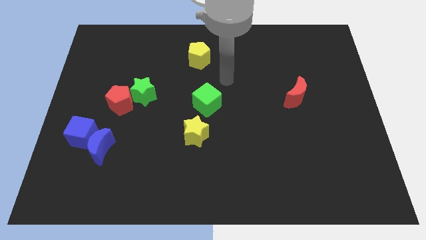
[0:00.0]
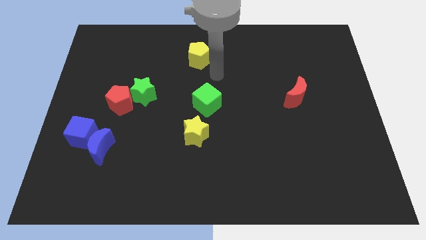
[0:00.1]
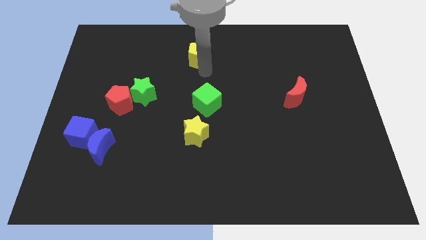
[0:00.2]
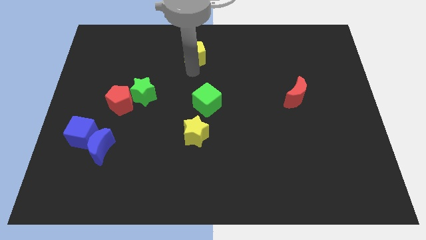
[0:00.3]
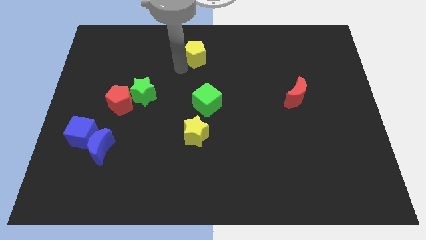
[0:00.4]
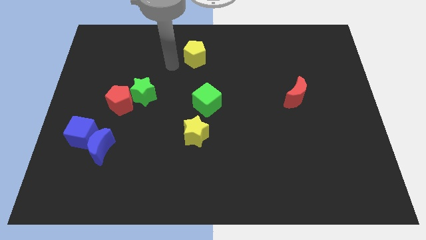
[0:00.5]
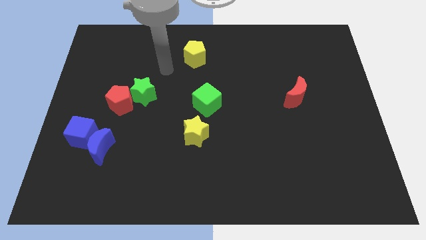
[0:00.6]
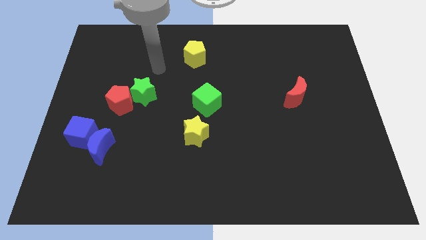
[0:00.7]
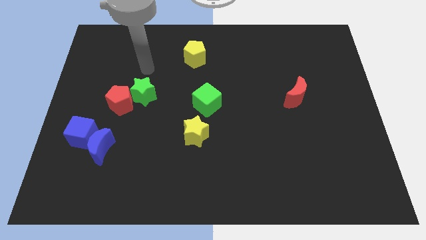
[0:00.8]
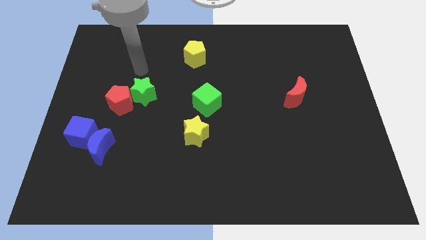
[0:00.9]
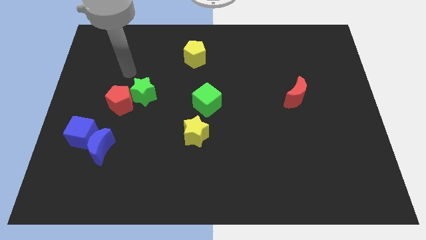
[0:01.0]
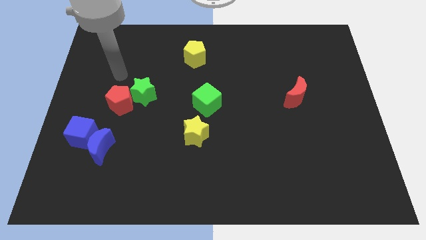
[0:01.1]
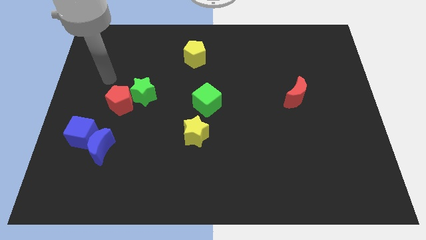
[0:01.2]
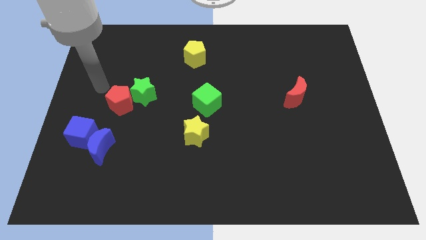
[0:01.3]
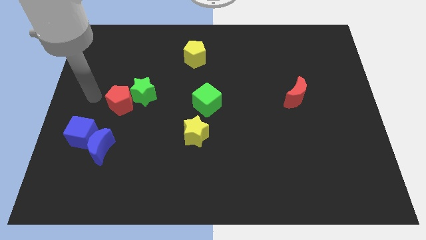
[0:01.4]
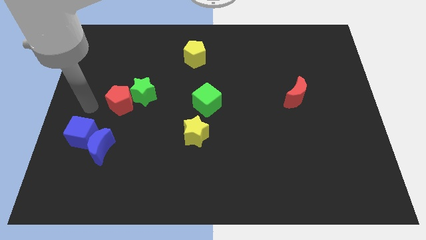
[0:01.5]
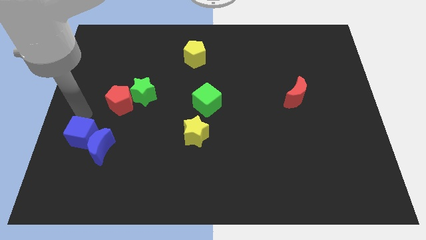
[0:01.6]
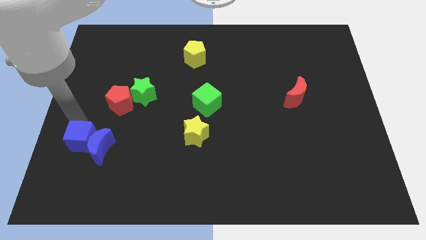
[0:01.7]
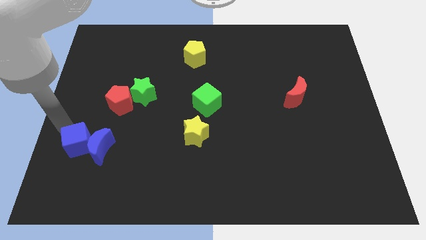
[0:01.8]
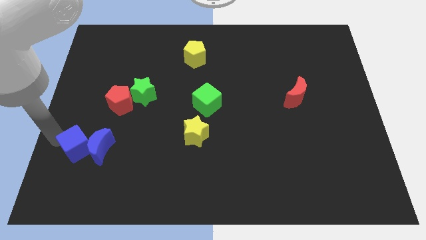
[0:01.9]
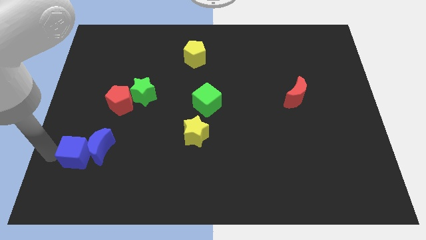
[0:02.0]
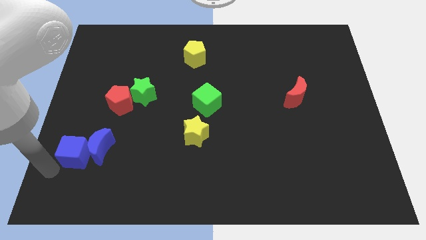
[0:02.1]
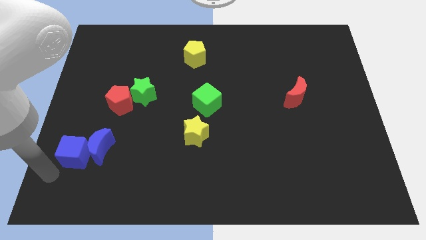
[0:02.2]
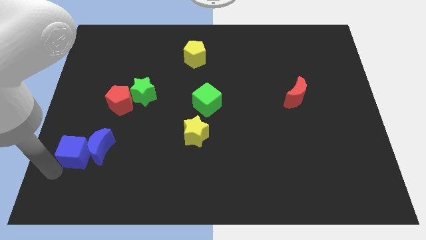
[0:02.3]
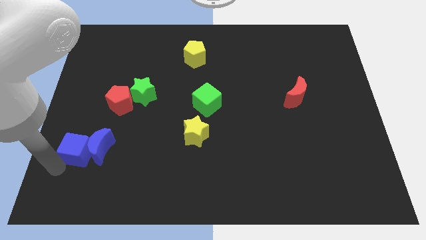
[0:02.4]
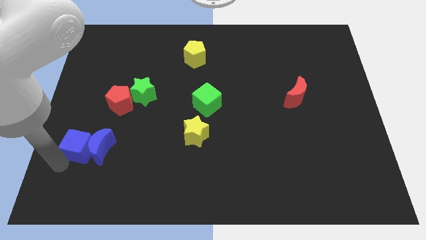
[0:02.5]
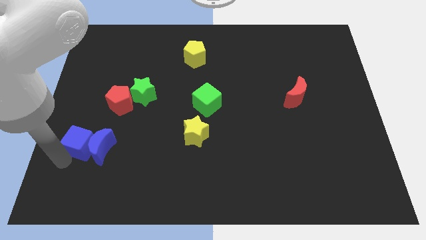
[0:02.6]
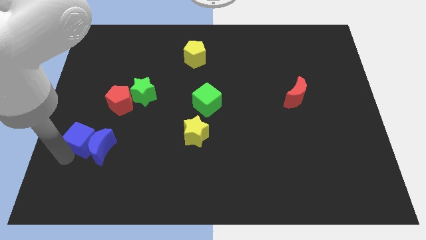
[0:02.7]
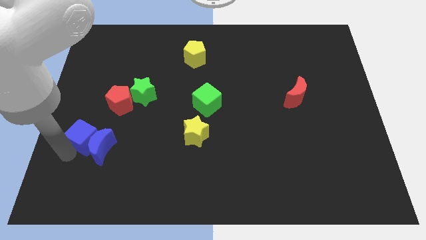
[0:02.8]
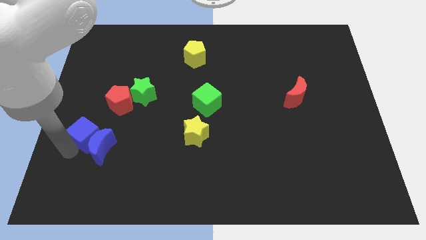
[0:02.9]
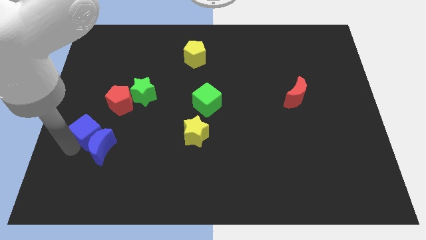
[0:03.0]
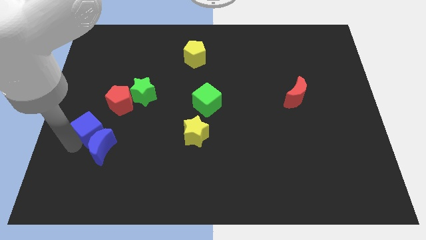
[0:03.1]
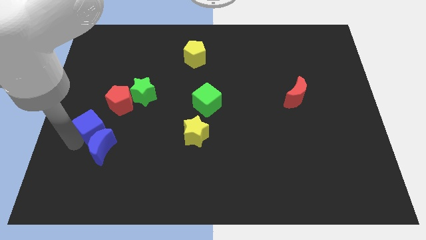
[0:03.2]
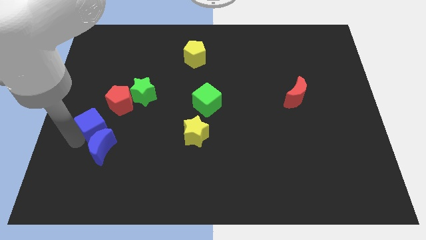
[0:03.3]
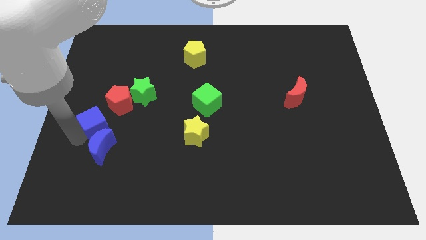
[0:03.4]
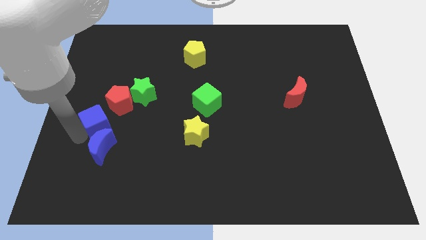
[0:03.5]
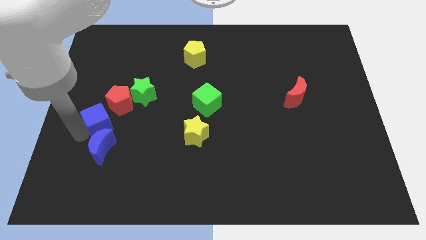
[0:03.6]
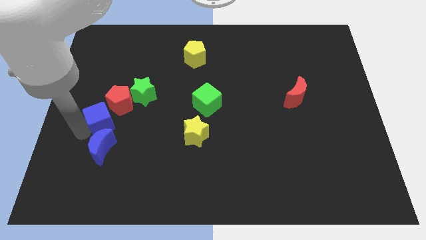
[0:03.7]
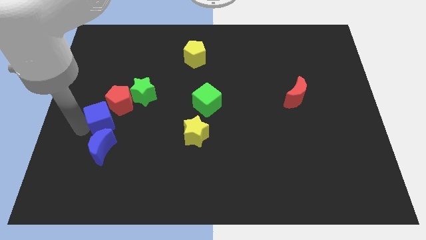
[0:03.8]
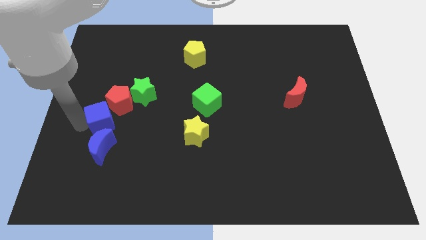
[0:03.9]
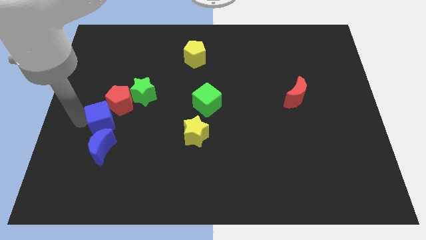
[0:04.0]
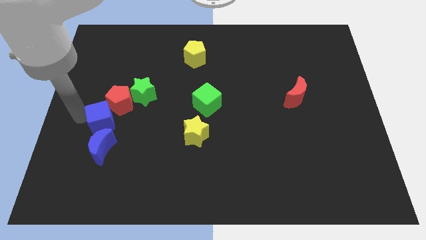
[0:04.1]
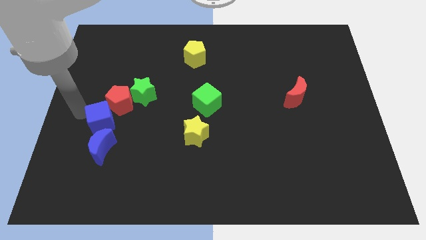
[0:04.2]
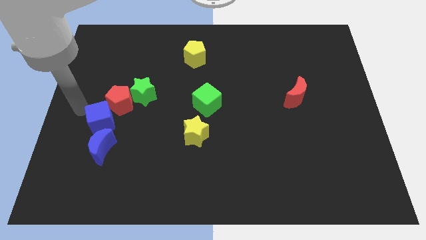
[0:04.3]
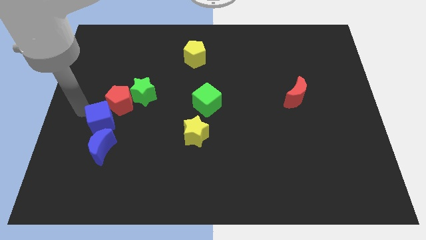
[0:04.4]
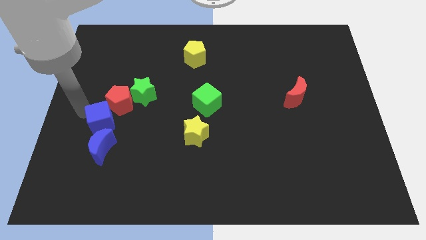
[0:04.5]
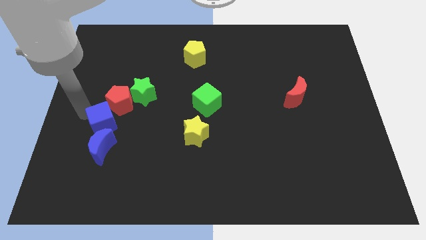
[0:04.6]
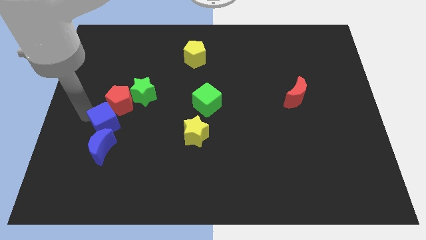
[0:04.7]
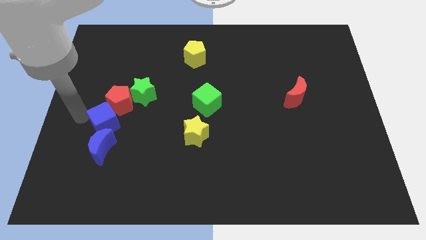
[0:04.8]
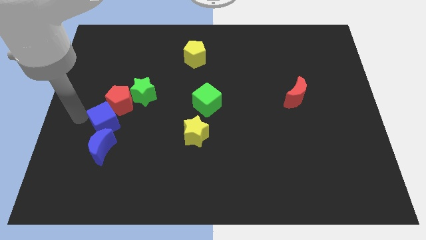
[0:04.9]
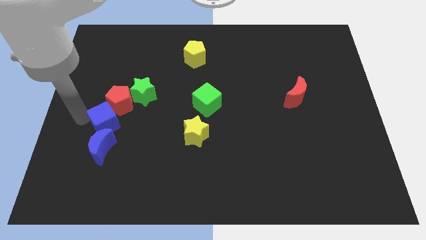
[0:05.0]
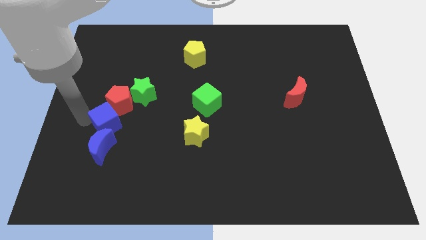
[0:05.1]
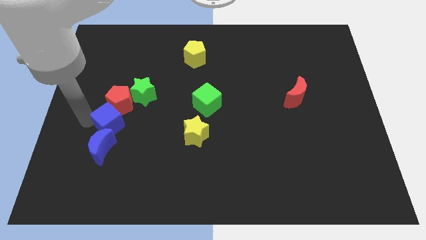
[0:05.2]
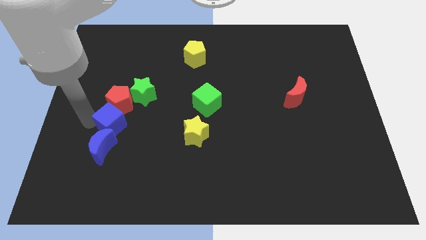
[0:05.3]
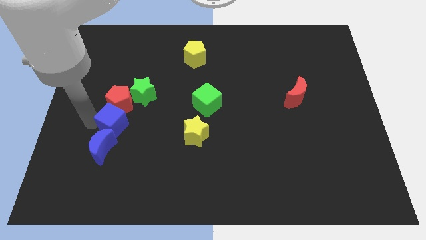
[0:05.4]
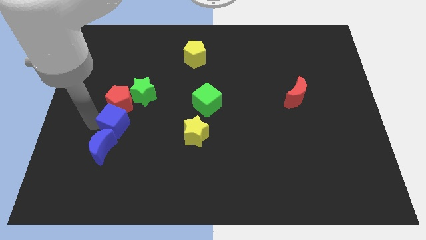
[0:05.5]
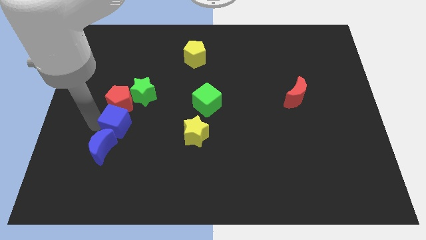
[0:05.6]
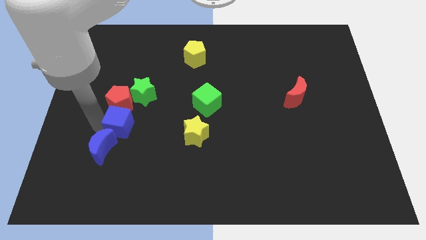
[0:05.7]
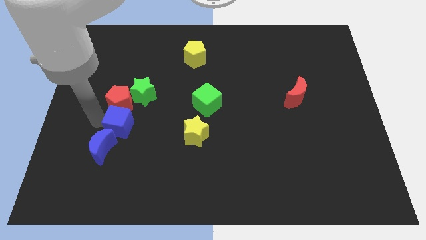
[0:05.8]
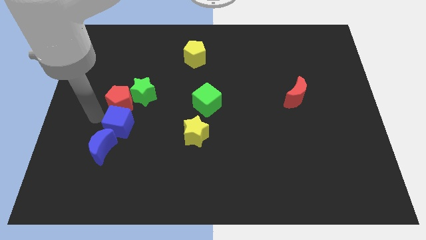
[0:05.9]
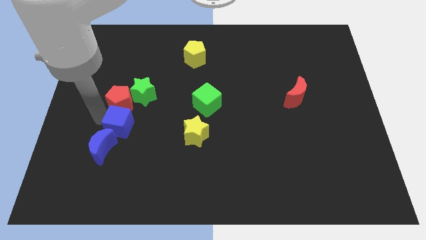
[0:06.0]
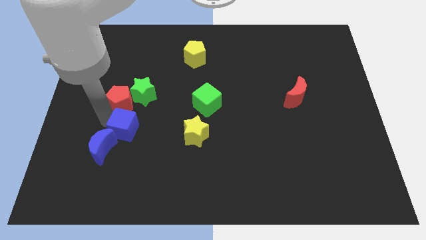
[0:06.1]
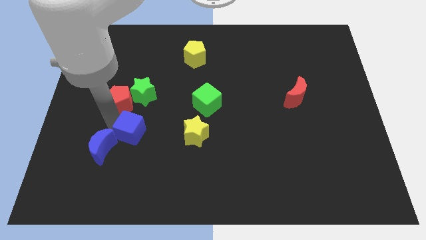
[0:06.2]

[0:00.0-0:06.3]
put the blue cube just left of the yellow star

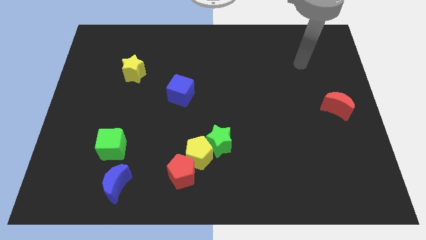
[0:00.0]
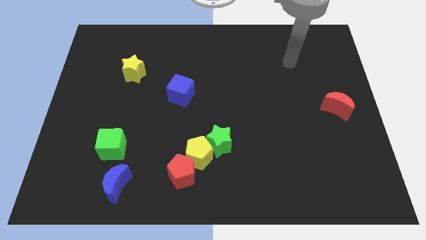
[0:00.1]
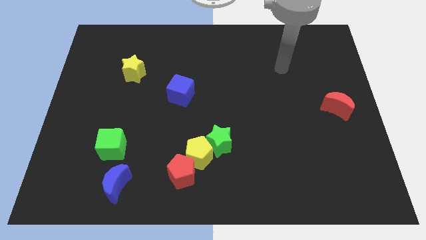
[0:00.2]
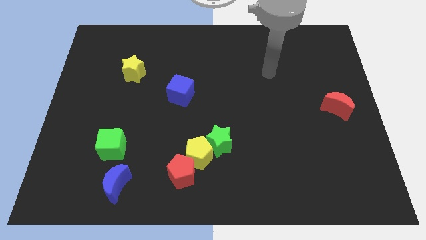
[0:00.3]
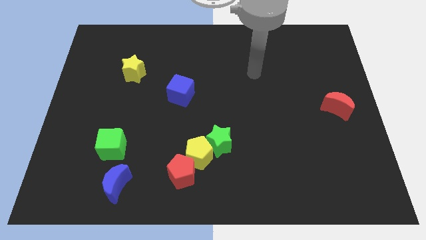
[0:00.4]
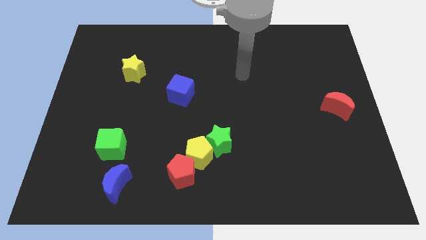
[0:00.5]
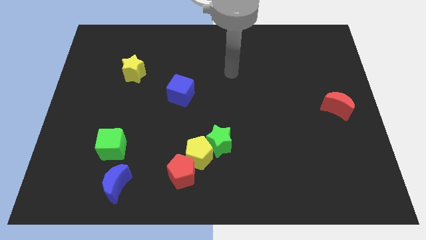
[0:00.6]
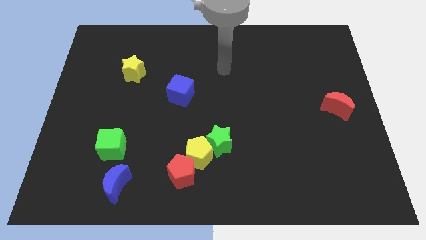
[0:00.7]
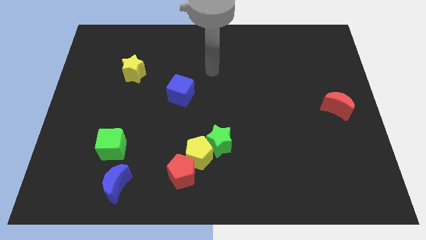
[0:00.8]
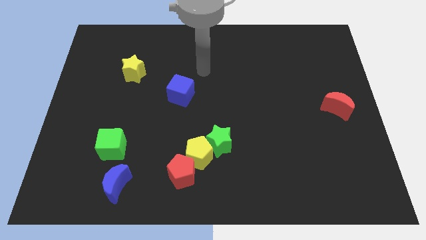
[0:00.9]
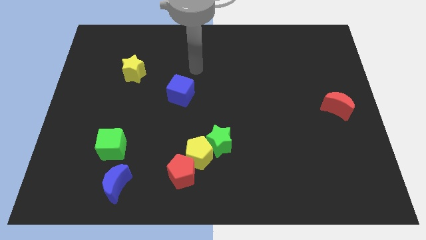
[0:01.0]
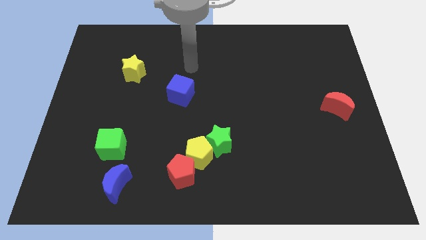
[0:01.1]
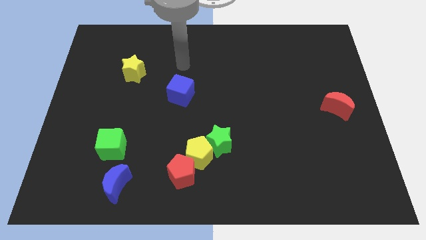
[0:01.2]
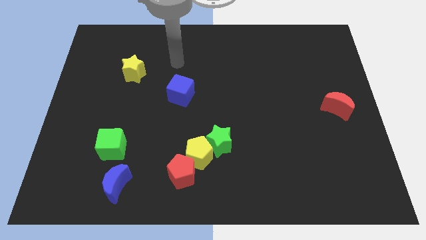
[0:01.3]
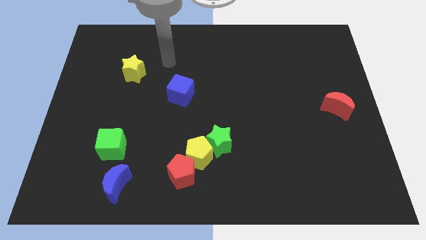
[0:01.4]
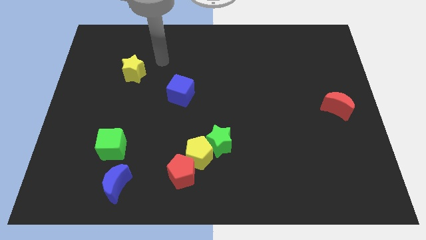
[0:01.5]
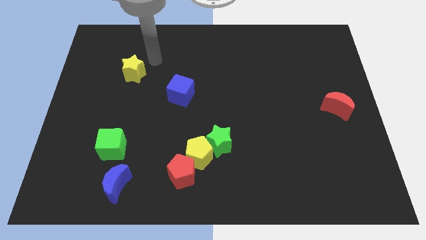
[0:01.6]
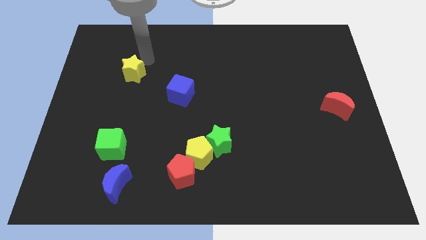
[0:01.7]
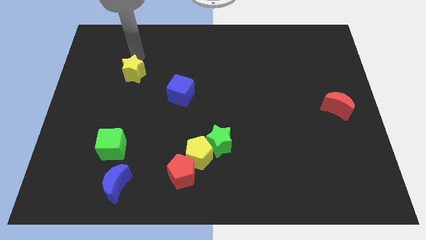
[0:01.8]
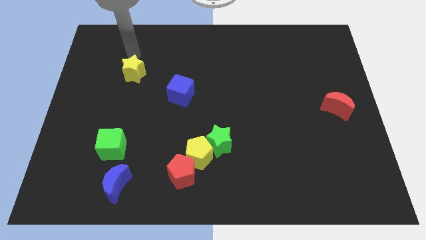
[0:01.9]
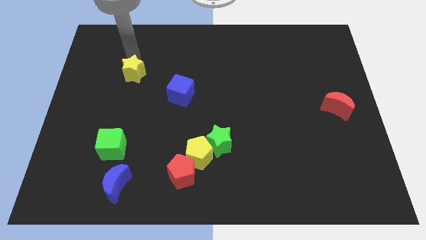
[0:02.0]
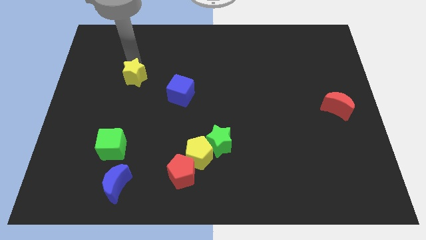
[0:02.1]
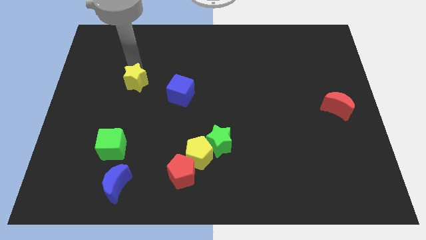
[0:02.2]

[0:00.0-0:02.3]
put the yellow star to the left of the blue cube
